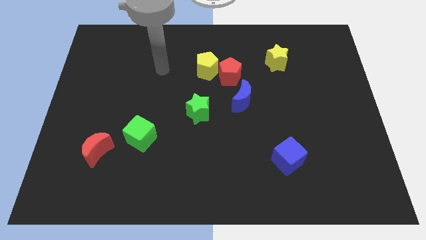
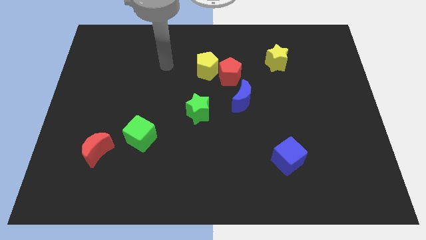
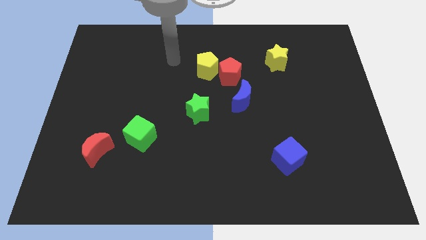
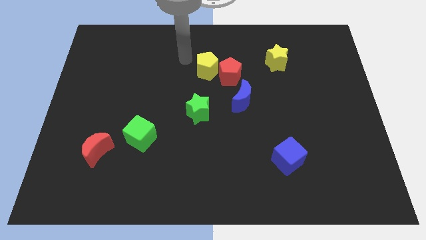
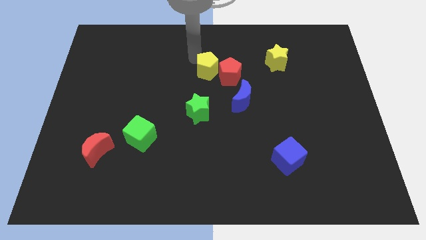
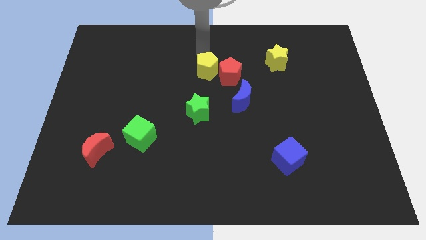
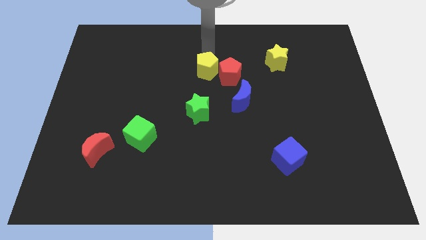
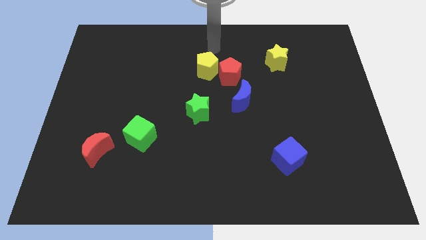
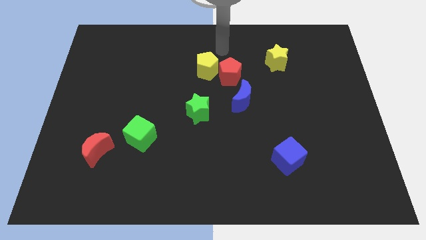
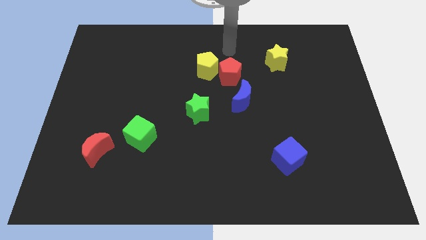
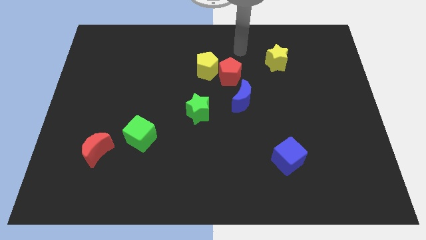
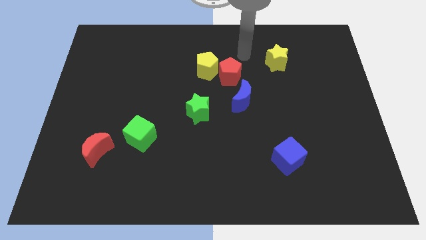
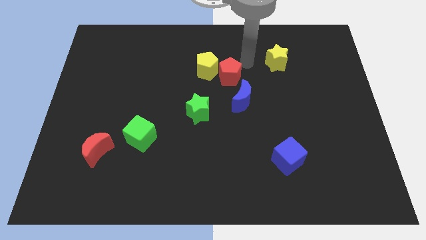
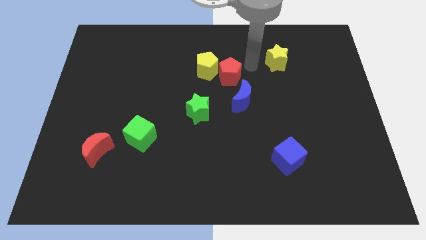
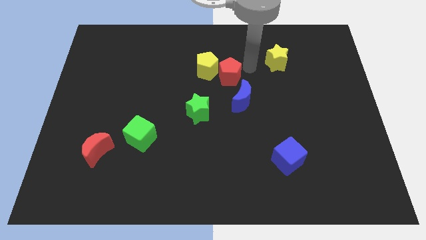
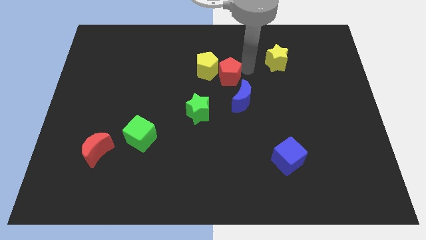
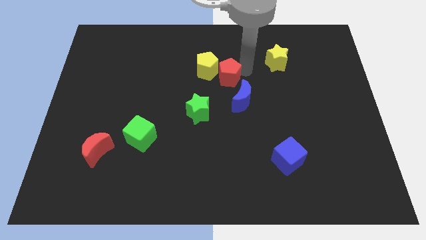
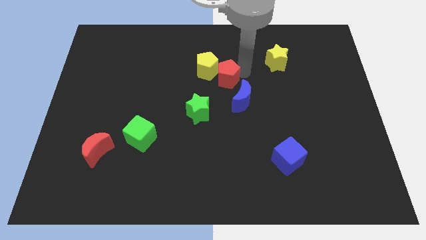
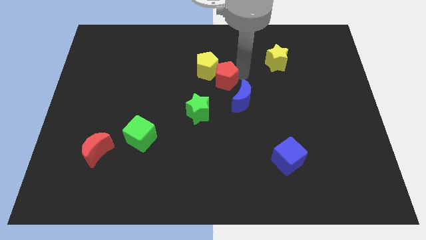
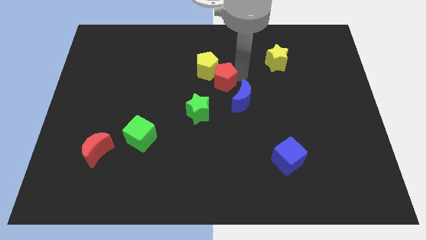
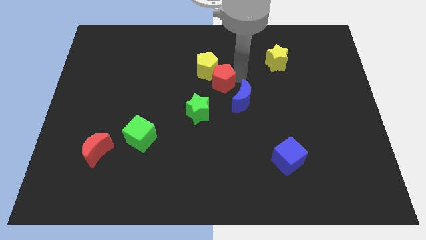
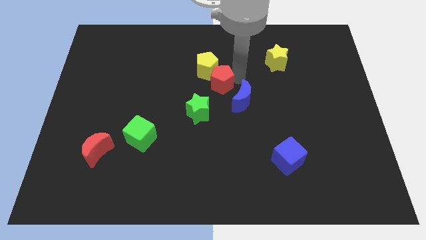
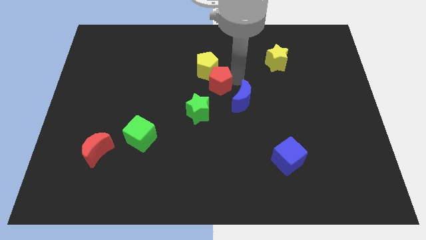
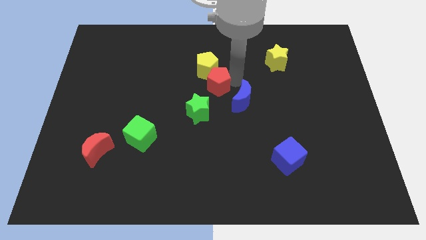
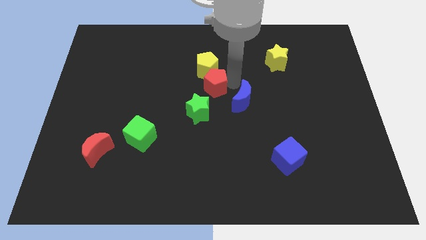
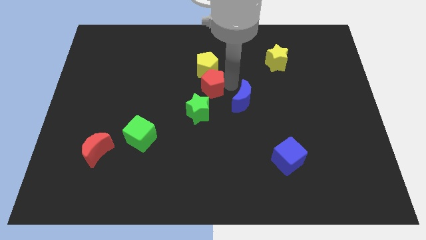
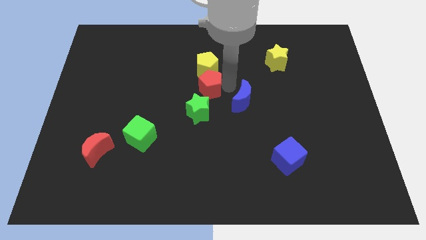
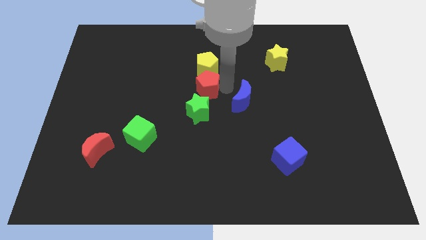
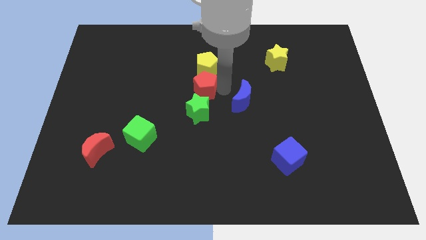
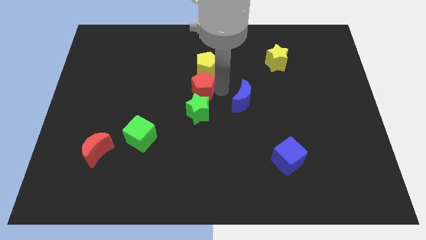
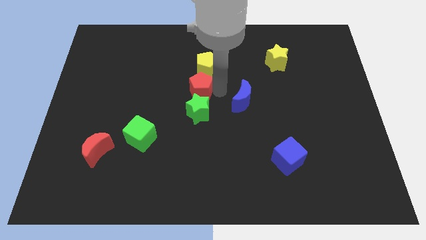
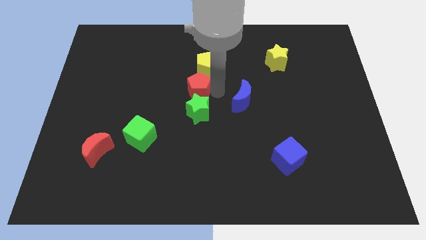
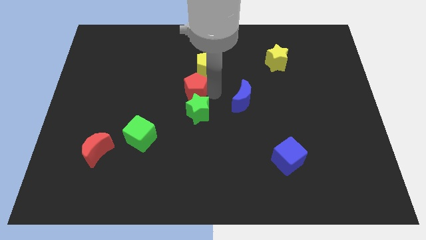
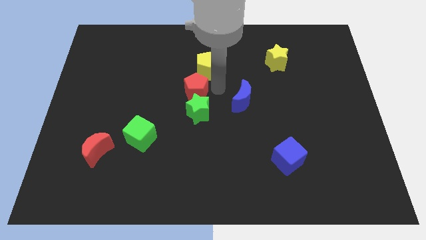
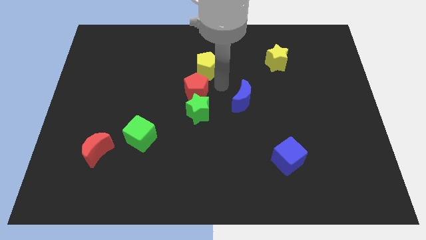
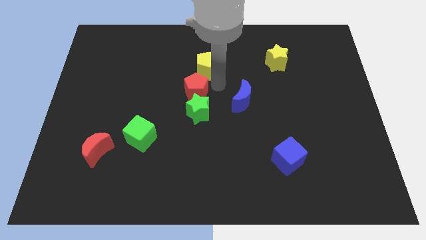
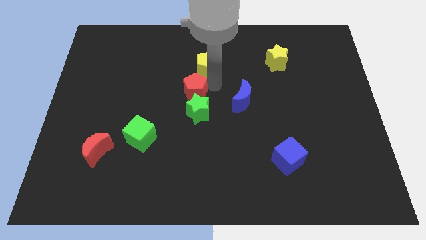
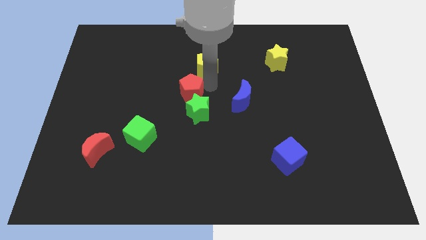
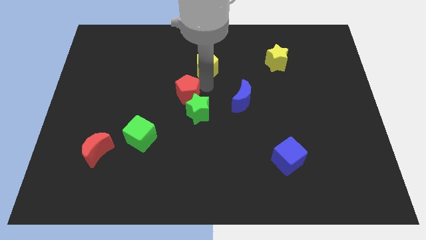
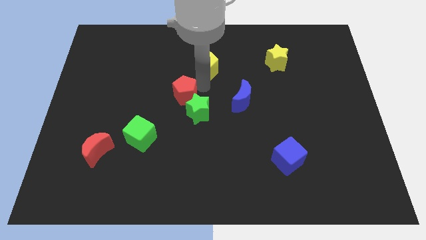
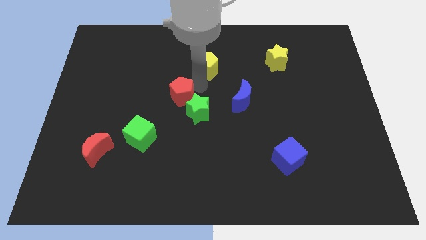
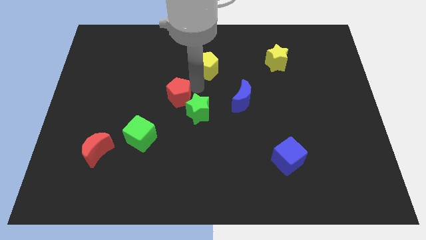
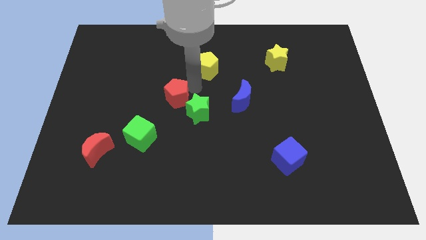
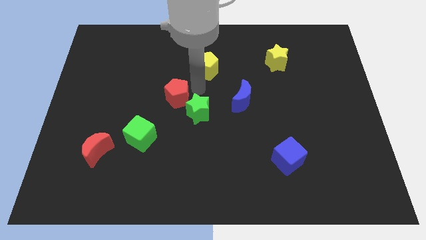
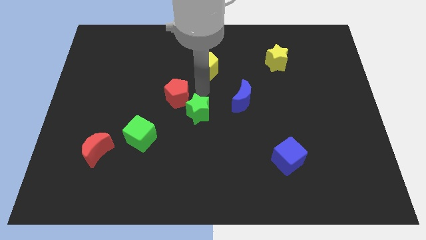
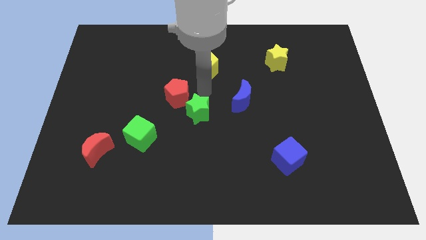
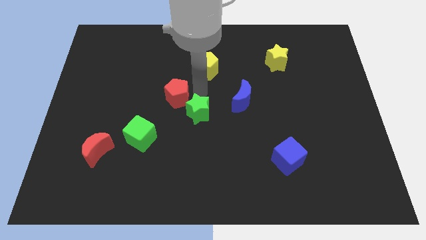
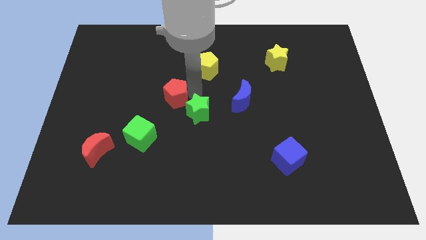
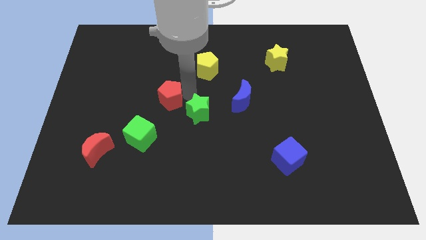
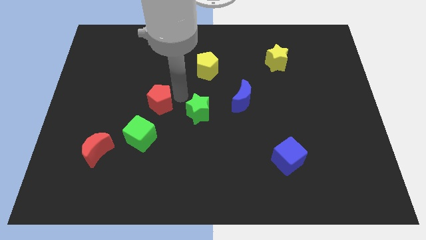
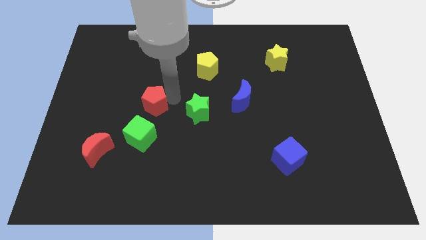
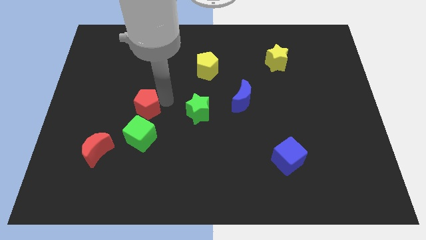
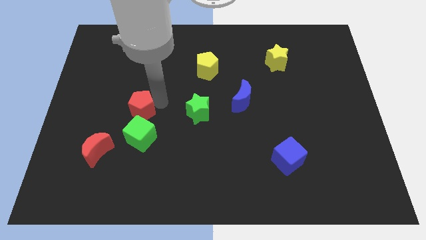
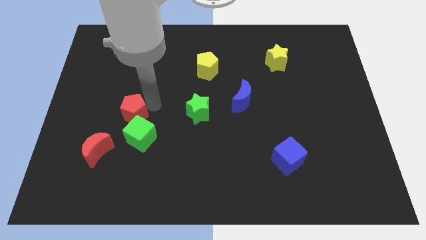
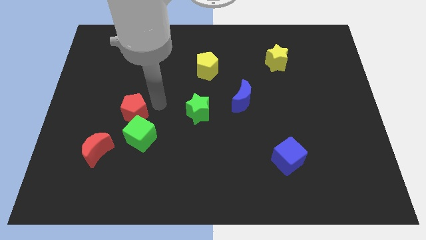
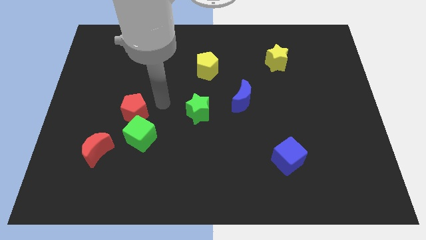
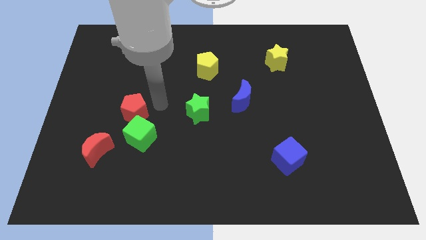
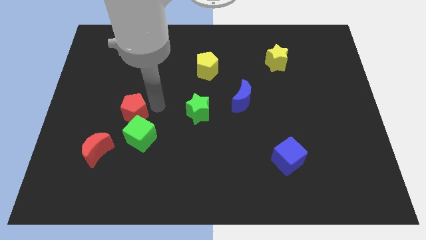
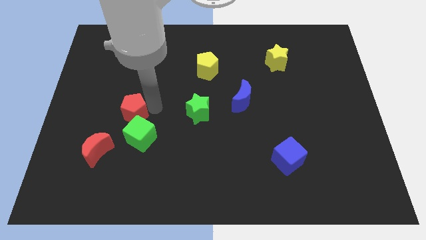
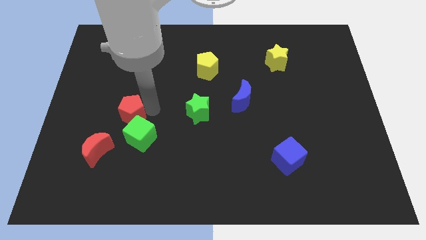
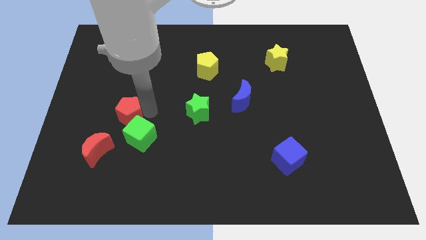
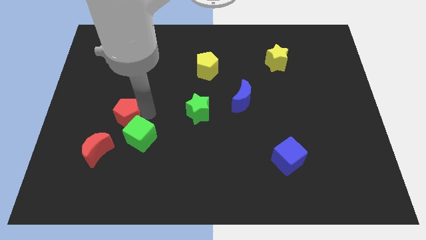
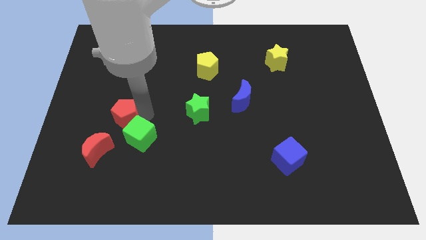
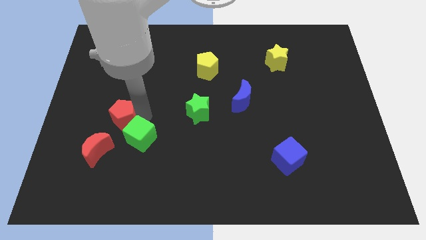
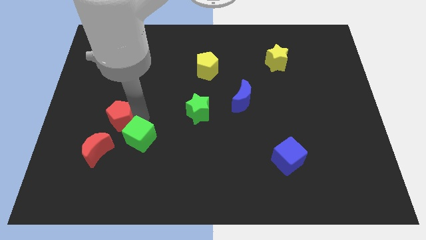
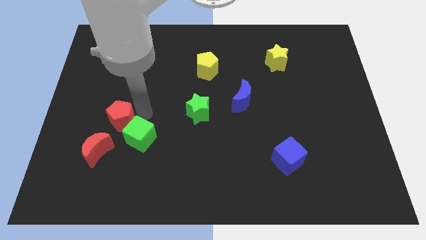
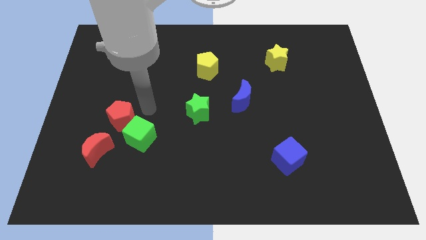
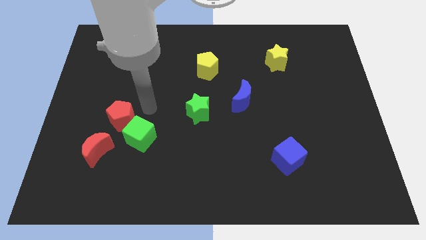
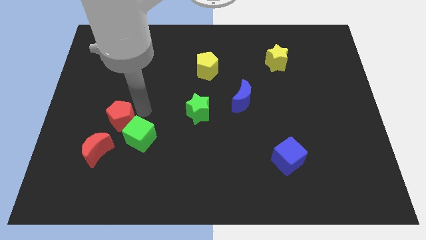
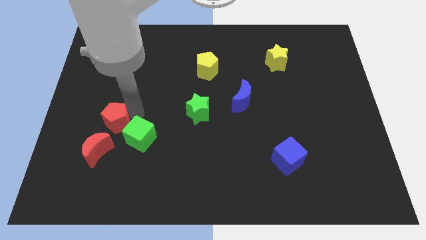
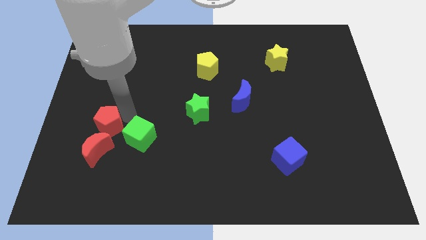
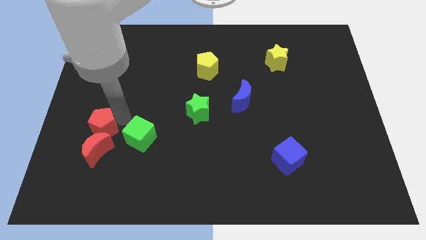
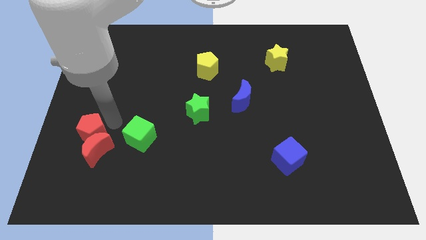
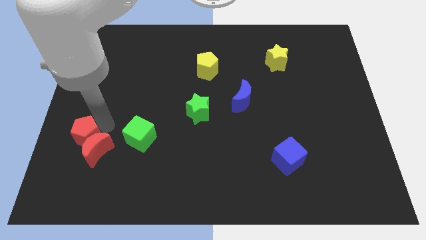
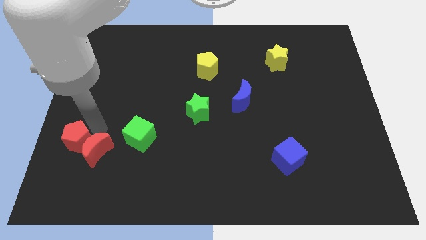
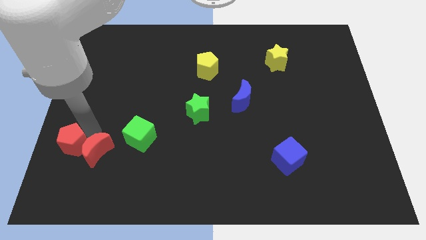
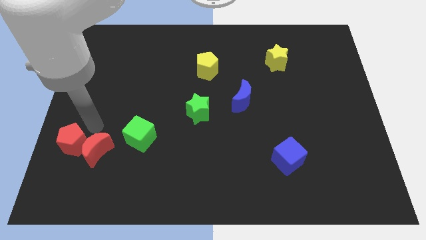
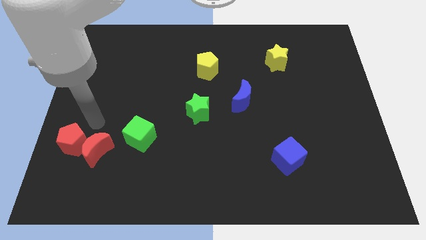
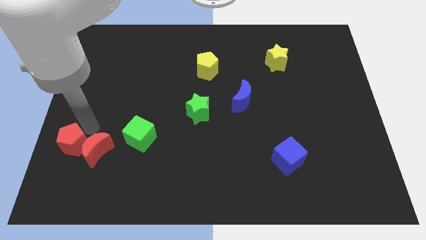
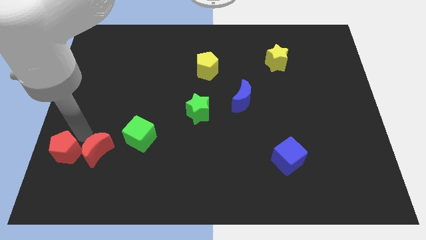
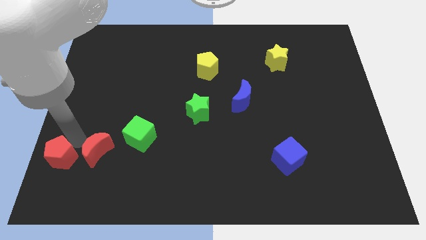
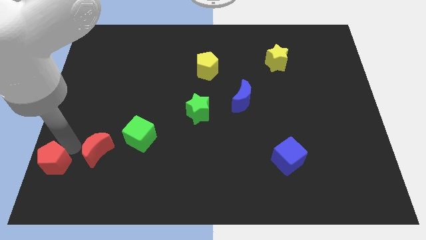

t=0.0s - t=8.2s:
push the red pentagon to the bottom left
